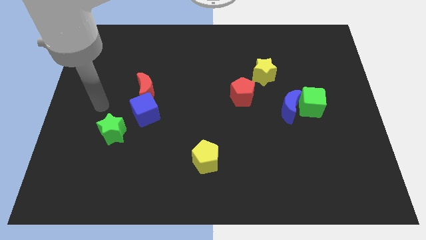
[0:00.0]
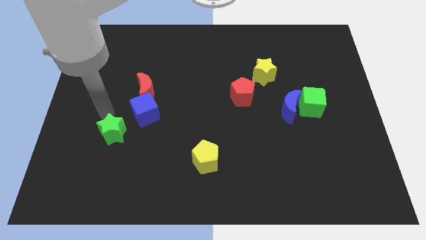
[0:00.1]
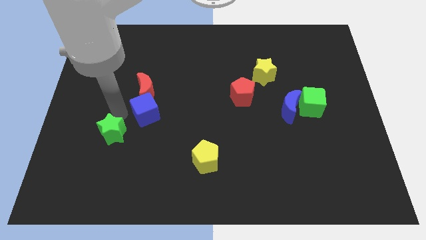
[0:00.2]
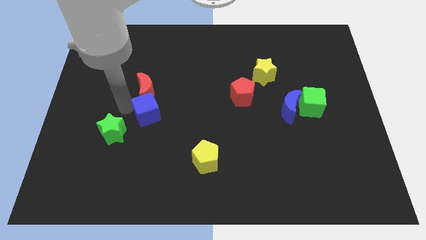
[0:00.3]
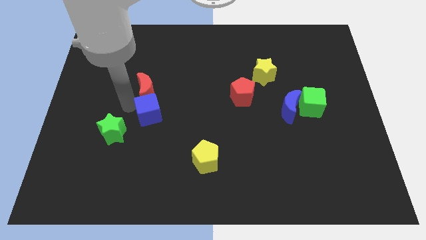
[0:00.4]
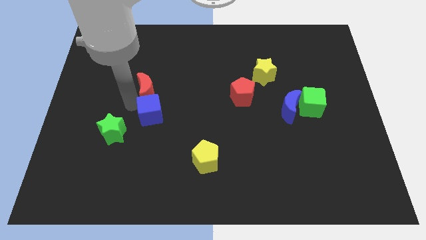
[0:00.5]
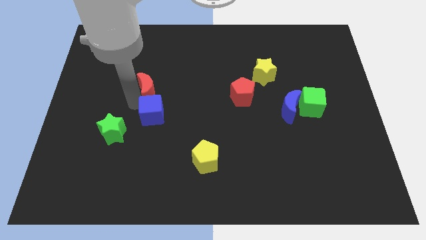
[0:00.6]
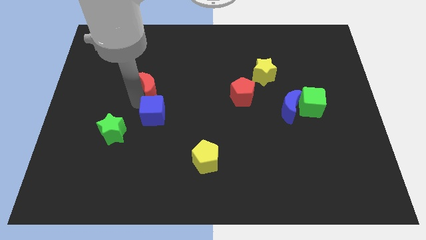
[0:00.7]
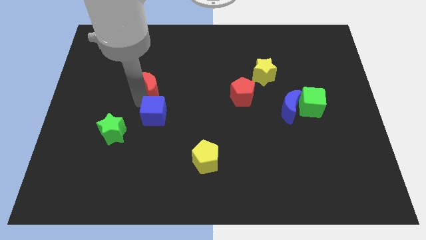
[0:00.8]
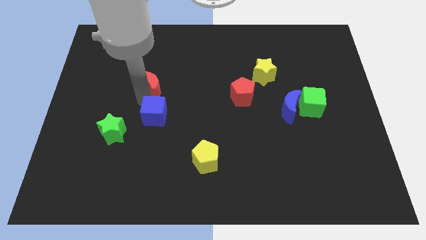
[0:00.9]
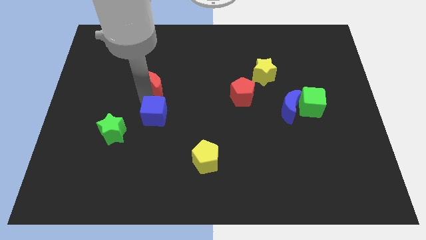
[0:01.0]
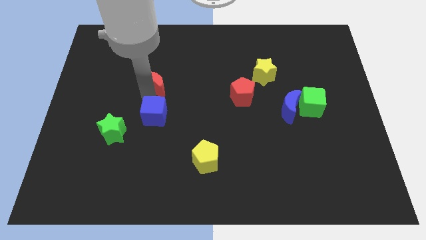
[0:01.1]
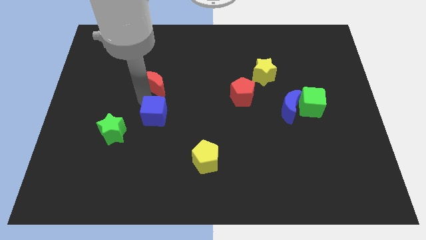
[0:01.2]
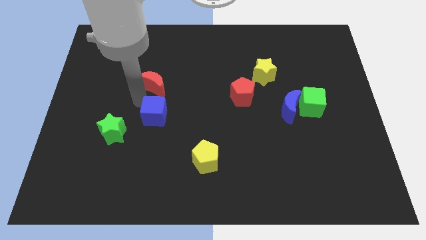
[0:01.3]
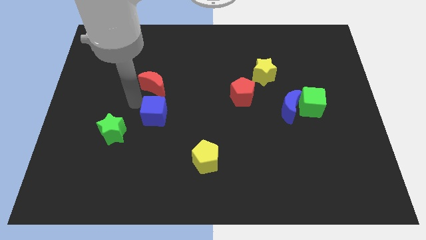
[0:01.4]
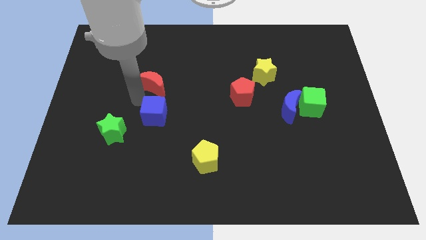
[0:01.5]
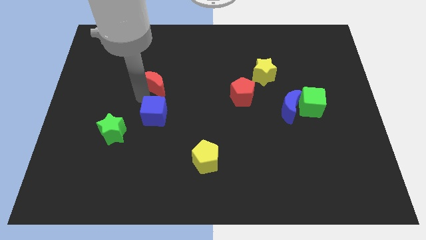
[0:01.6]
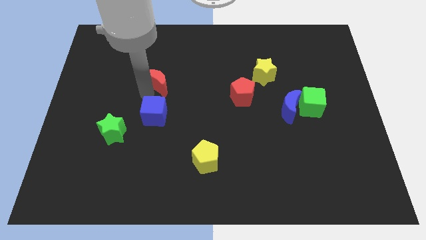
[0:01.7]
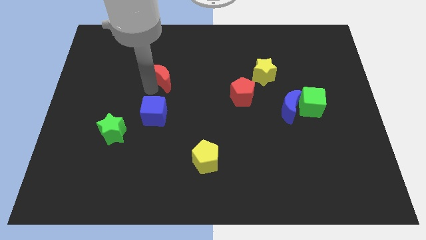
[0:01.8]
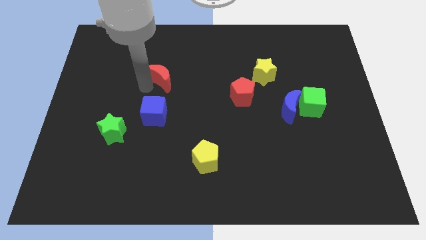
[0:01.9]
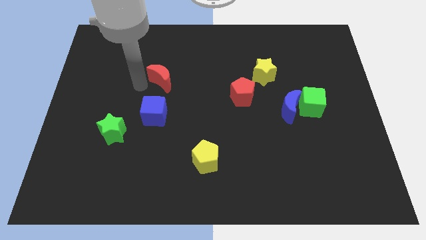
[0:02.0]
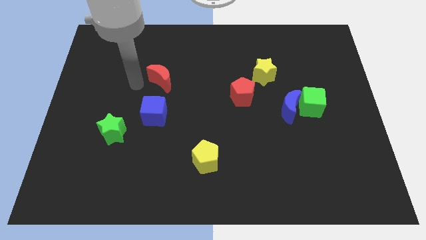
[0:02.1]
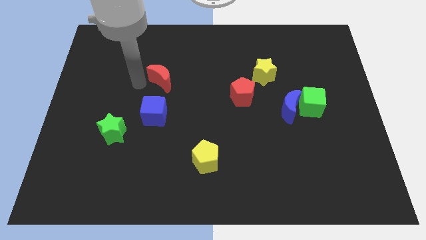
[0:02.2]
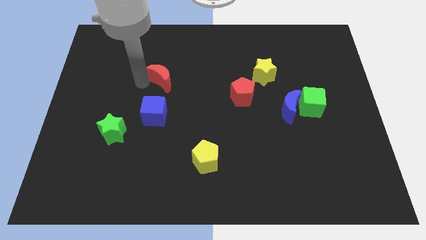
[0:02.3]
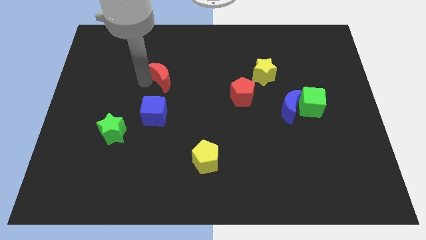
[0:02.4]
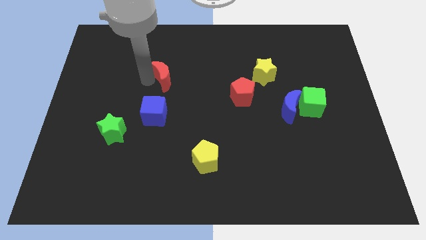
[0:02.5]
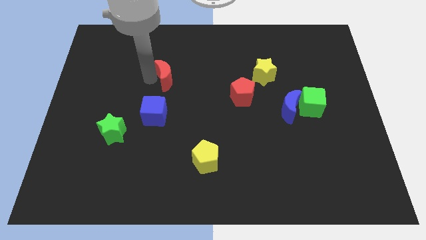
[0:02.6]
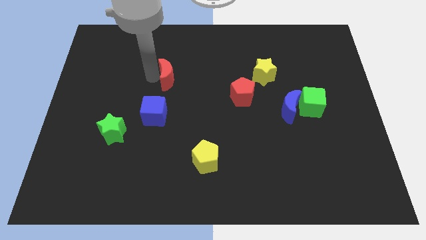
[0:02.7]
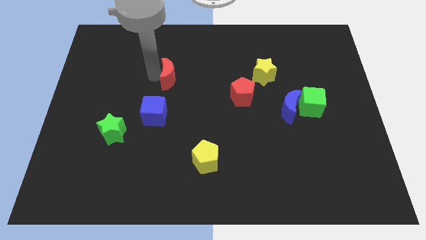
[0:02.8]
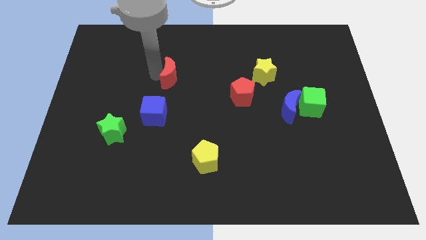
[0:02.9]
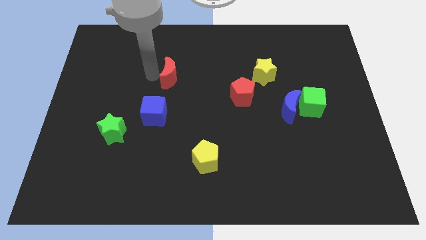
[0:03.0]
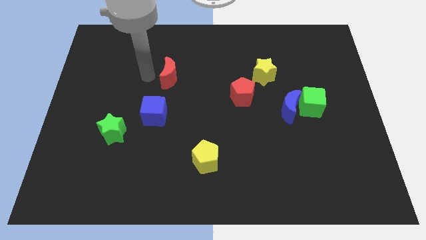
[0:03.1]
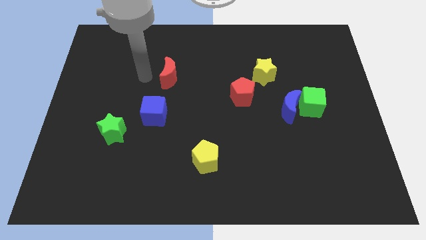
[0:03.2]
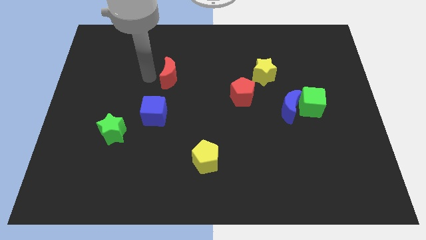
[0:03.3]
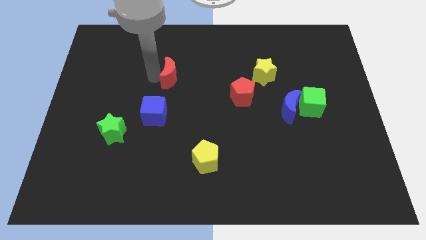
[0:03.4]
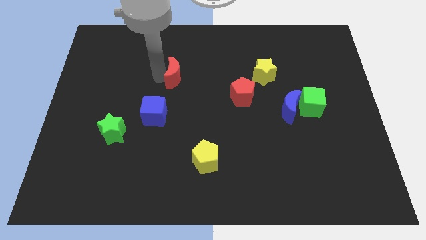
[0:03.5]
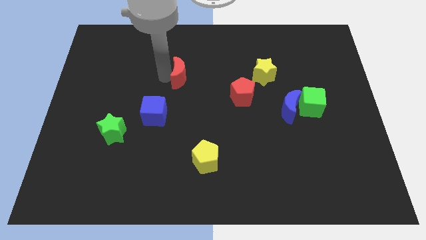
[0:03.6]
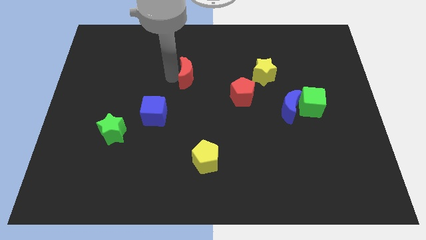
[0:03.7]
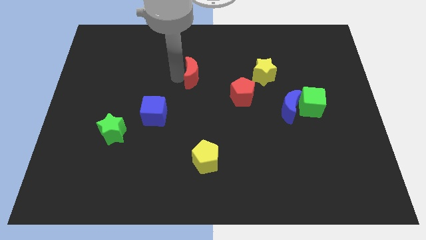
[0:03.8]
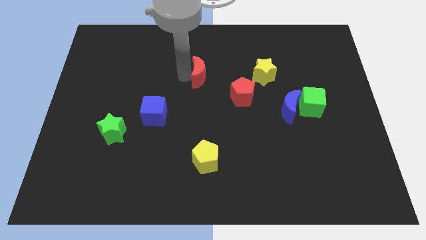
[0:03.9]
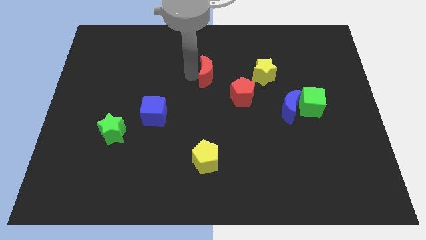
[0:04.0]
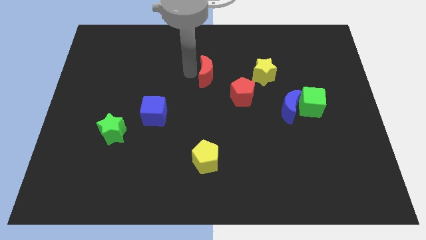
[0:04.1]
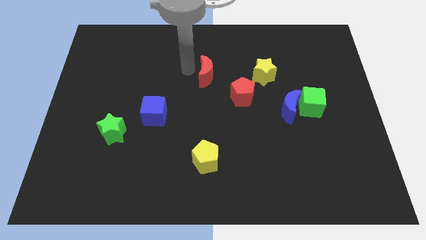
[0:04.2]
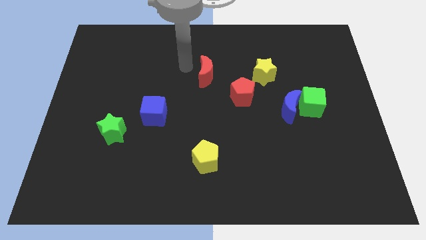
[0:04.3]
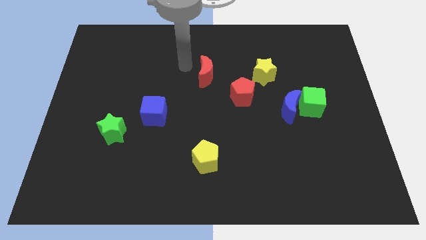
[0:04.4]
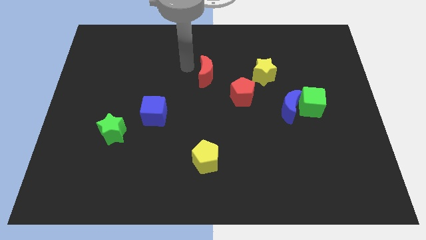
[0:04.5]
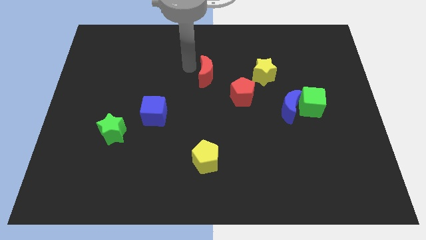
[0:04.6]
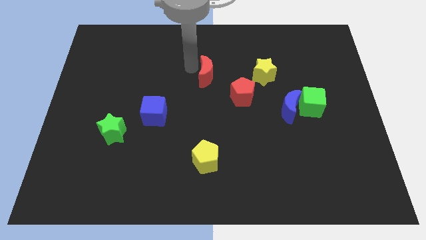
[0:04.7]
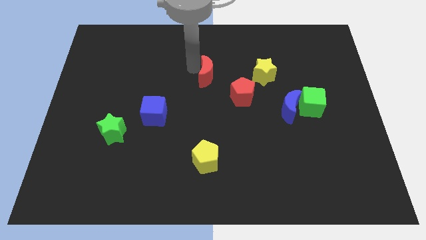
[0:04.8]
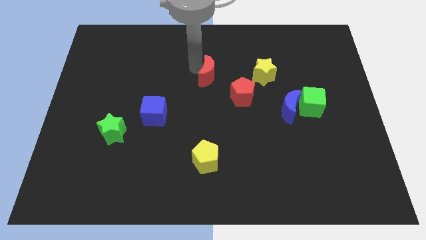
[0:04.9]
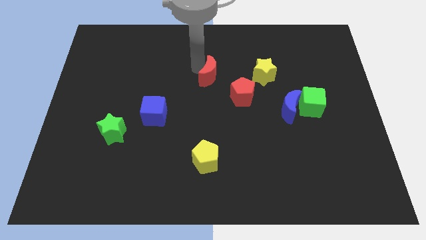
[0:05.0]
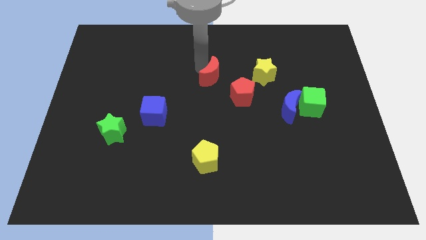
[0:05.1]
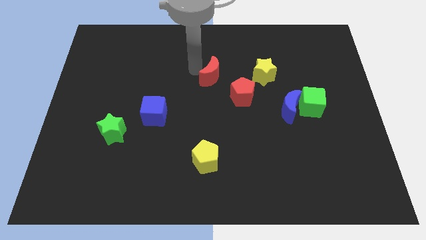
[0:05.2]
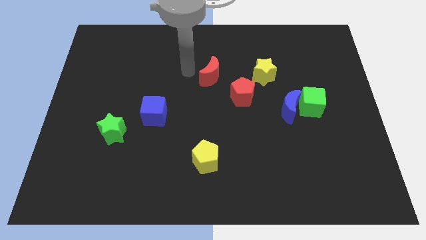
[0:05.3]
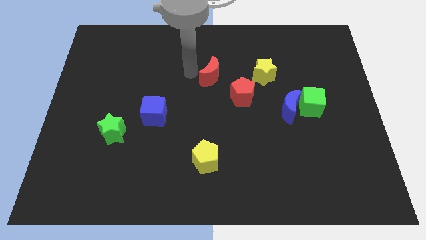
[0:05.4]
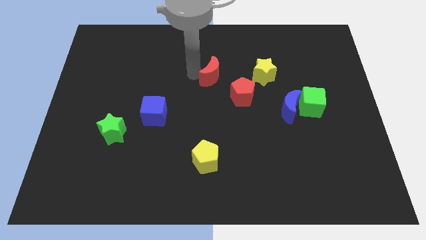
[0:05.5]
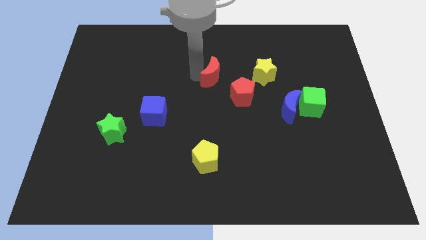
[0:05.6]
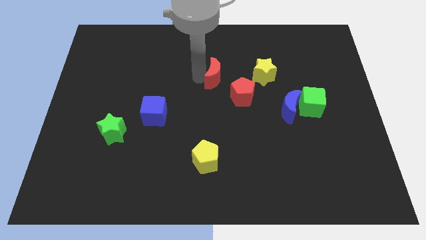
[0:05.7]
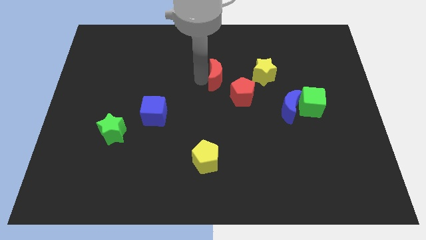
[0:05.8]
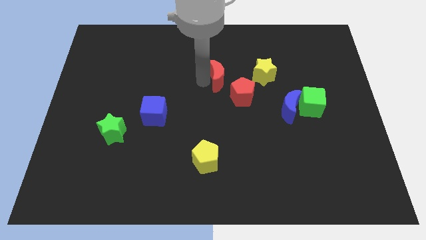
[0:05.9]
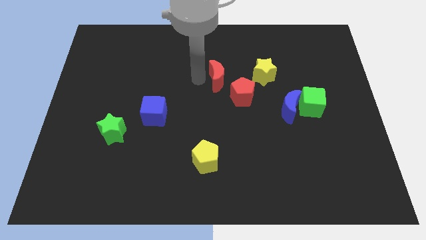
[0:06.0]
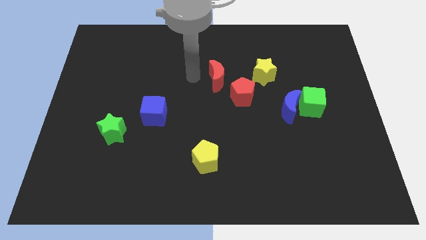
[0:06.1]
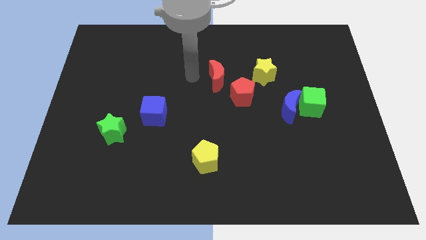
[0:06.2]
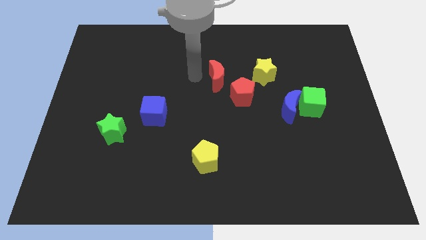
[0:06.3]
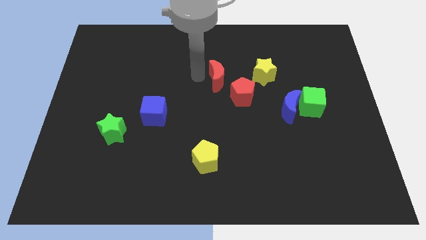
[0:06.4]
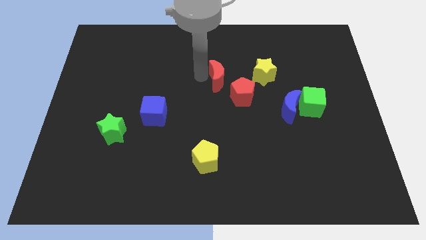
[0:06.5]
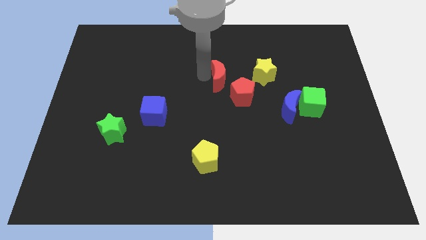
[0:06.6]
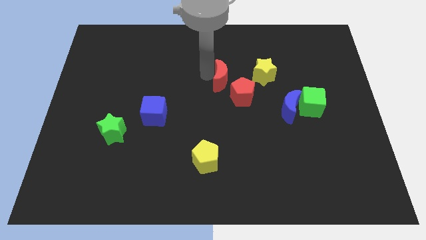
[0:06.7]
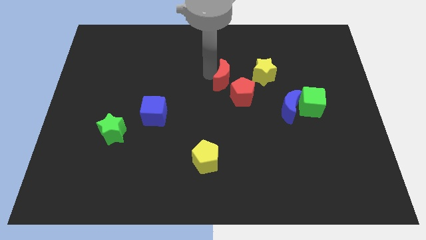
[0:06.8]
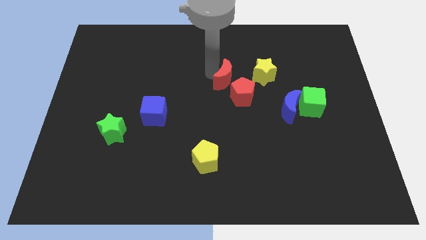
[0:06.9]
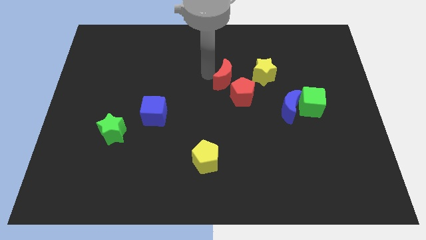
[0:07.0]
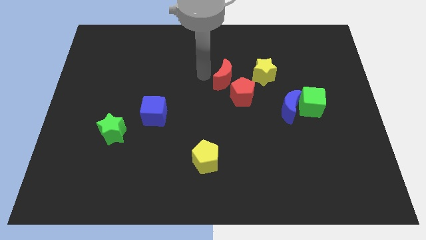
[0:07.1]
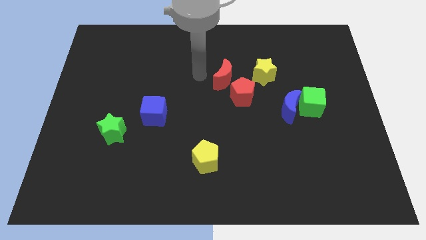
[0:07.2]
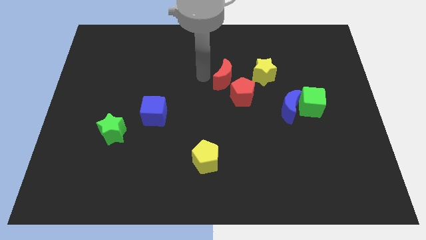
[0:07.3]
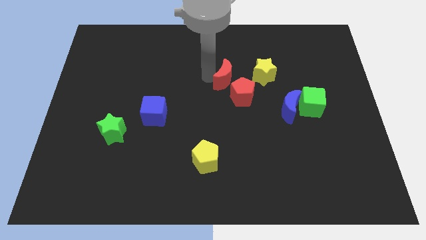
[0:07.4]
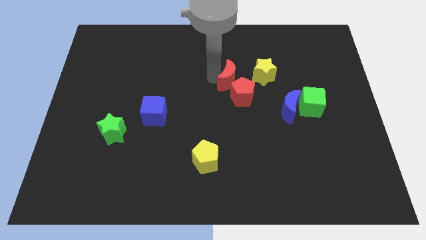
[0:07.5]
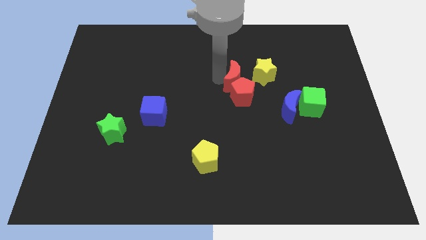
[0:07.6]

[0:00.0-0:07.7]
move the red moon right

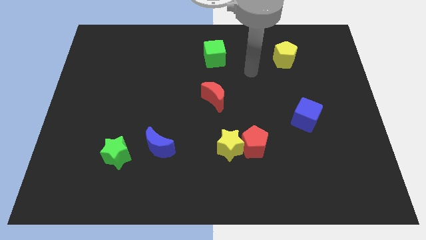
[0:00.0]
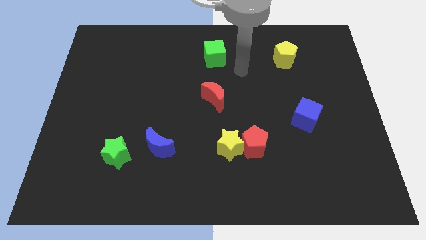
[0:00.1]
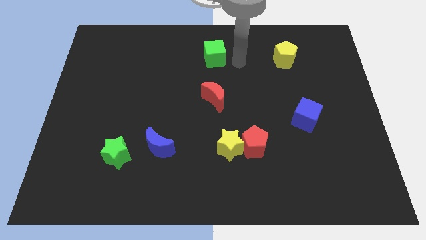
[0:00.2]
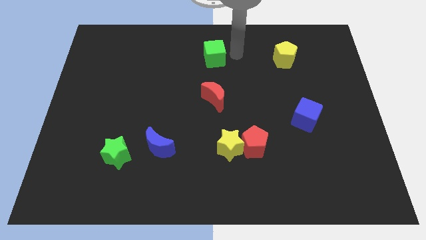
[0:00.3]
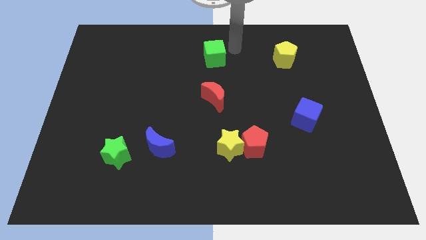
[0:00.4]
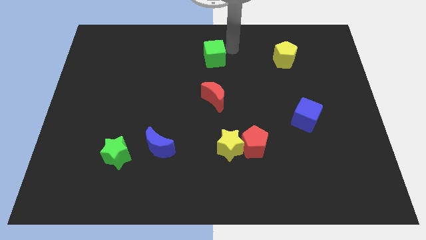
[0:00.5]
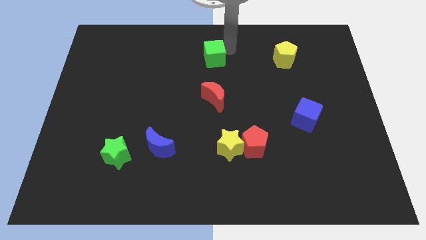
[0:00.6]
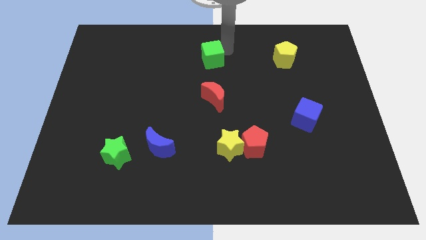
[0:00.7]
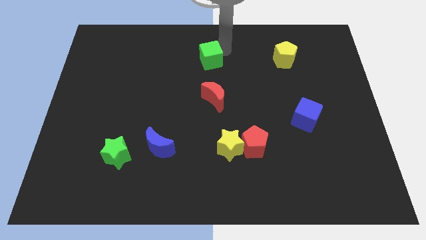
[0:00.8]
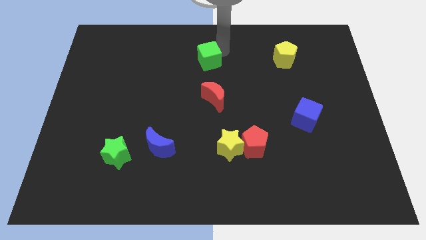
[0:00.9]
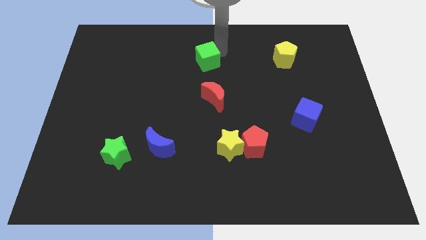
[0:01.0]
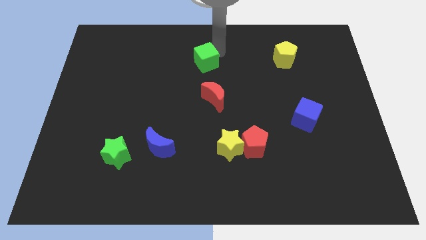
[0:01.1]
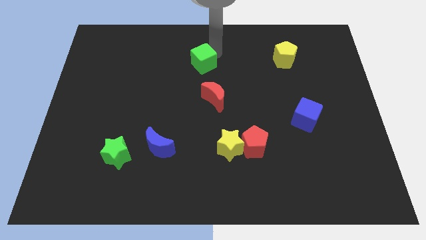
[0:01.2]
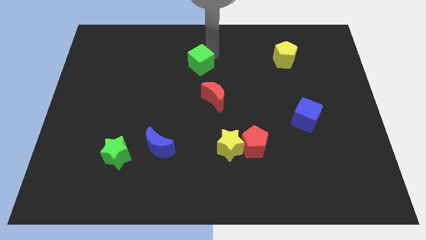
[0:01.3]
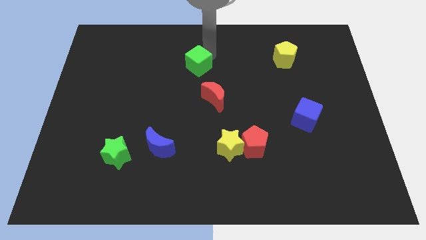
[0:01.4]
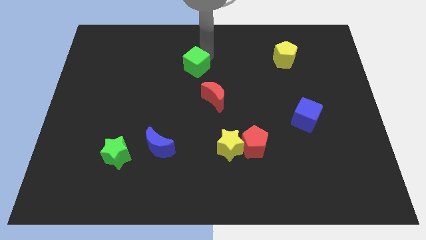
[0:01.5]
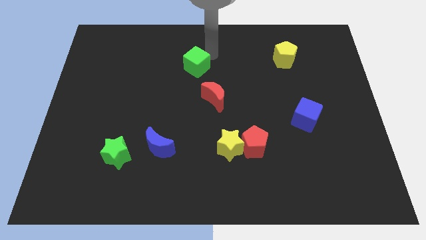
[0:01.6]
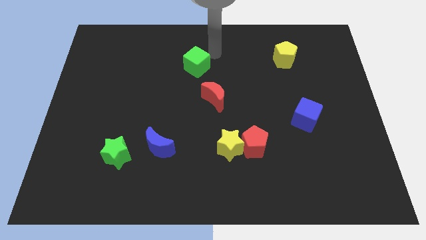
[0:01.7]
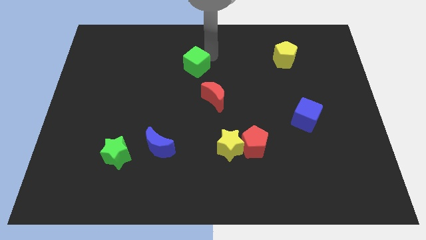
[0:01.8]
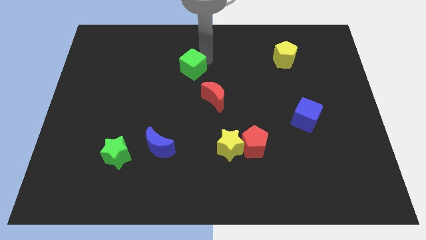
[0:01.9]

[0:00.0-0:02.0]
slightly slide the green cube down and to the left diagonally
